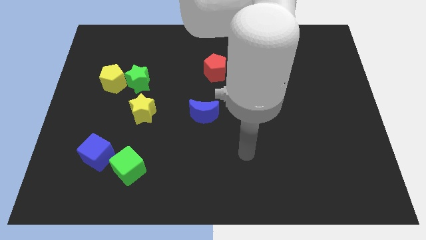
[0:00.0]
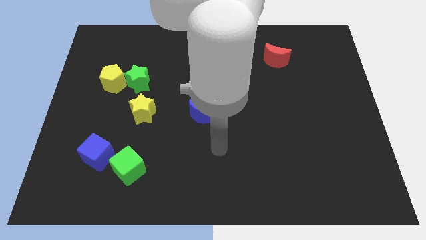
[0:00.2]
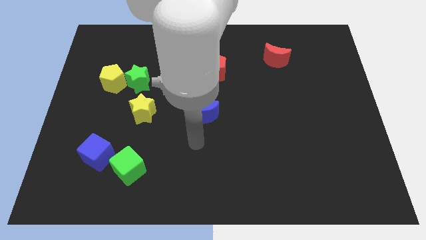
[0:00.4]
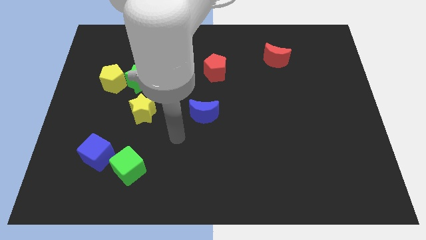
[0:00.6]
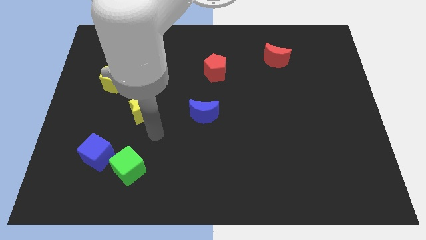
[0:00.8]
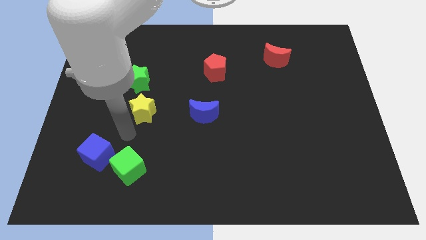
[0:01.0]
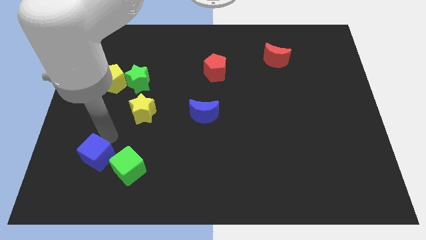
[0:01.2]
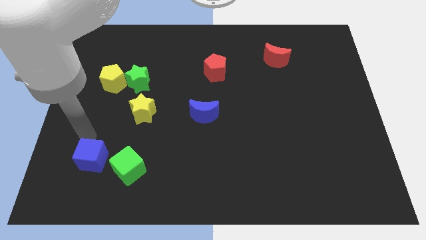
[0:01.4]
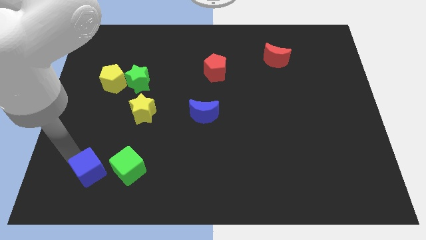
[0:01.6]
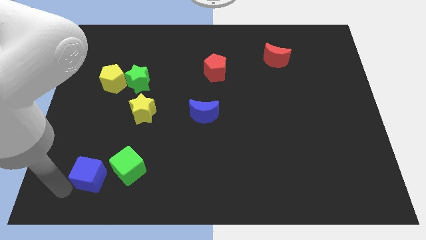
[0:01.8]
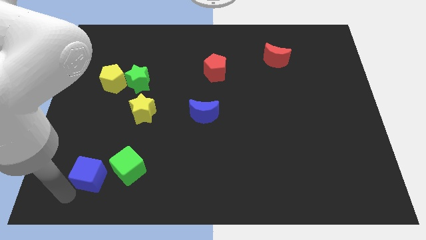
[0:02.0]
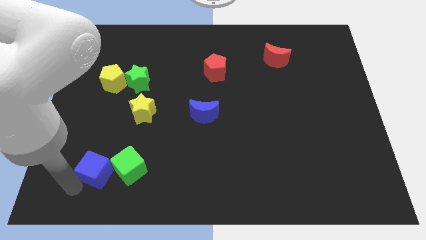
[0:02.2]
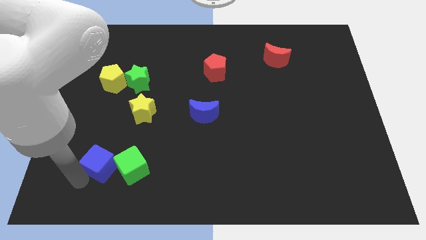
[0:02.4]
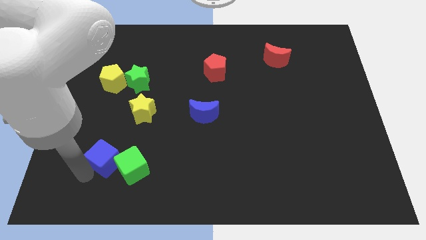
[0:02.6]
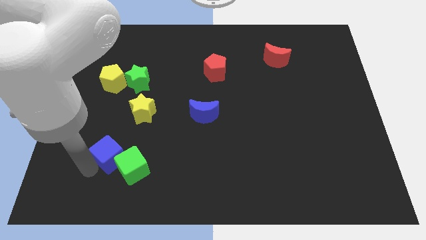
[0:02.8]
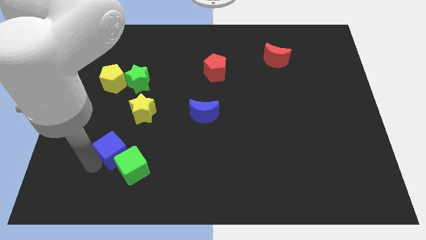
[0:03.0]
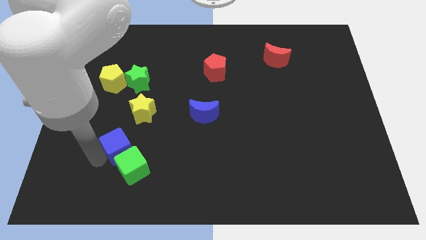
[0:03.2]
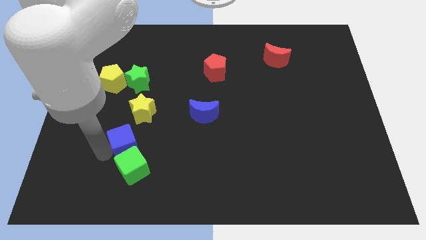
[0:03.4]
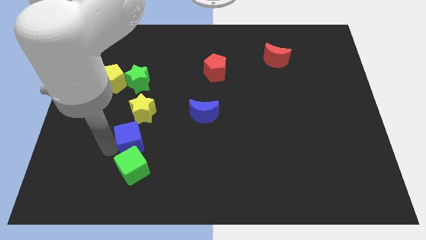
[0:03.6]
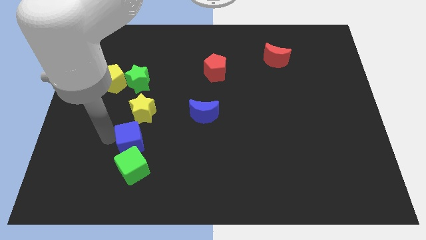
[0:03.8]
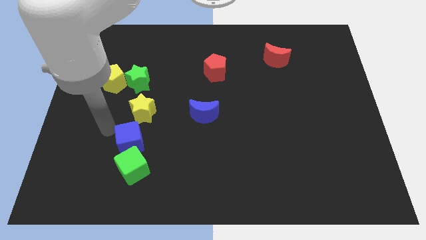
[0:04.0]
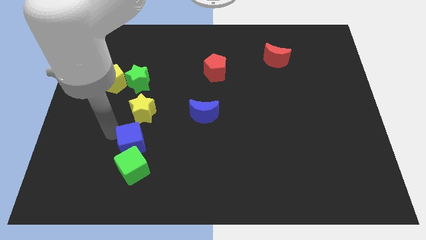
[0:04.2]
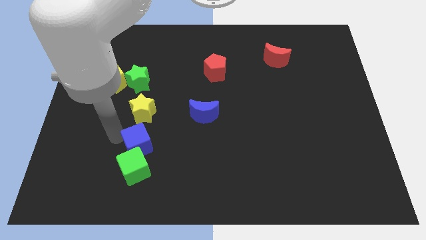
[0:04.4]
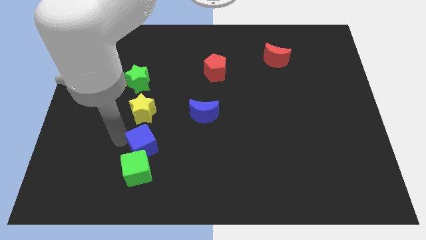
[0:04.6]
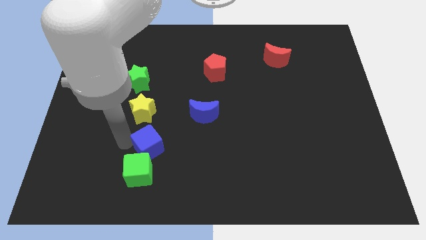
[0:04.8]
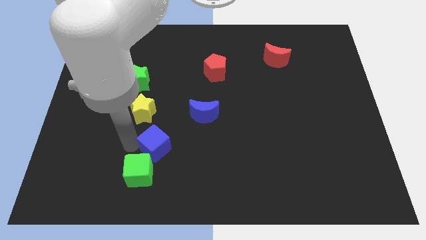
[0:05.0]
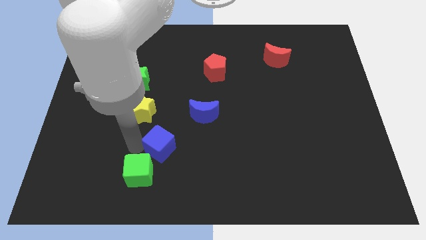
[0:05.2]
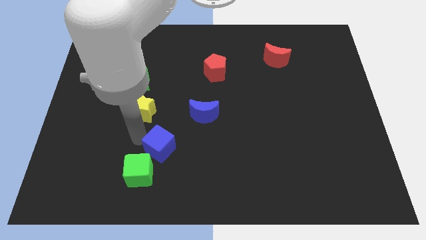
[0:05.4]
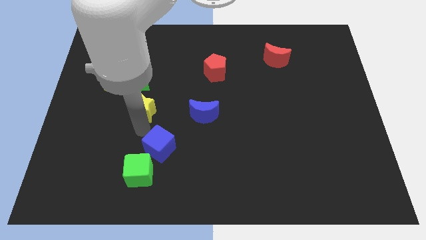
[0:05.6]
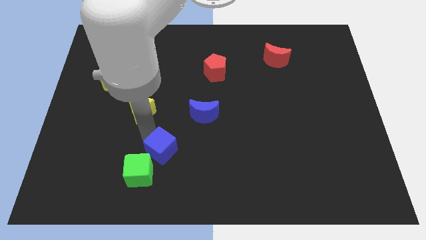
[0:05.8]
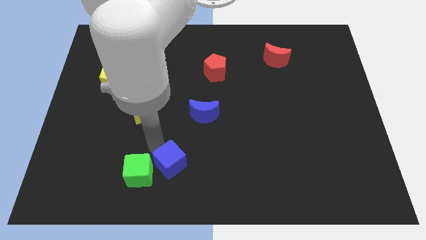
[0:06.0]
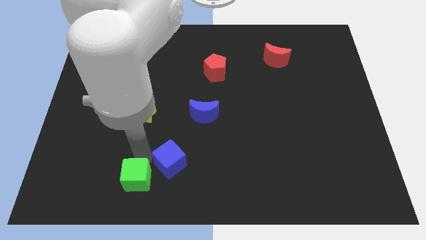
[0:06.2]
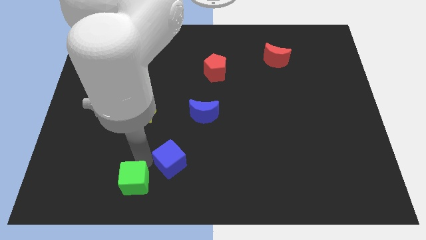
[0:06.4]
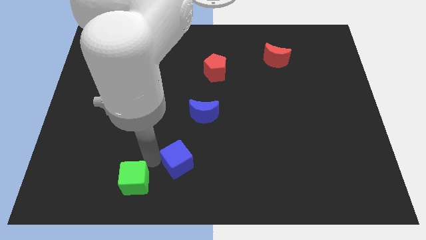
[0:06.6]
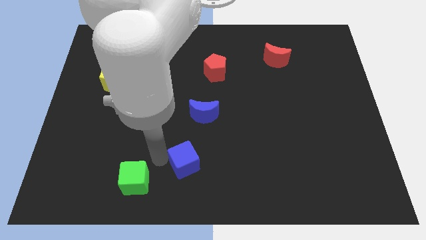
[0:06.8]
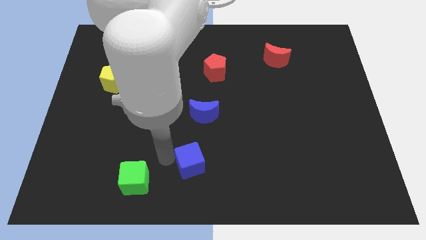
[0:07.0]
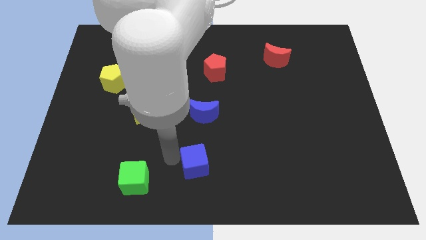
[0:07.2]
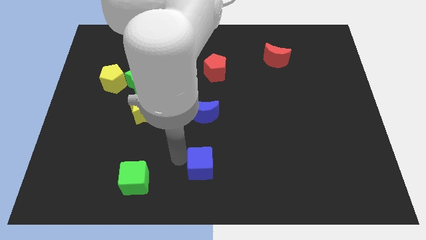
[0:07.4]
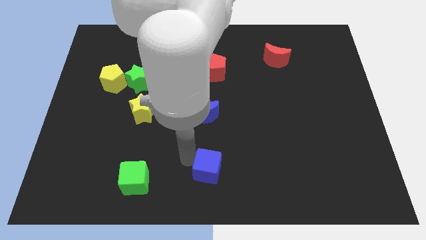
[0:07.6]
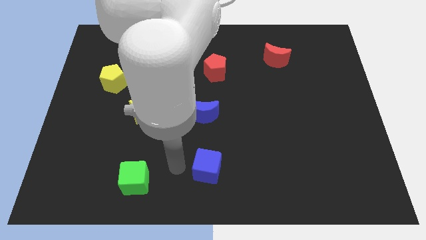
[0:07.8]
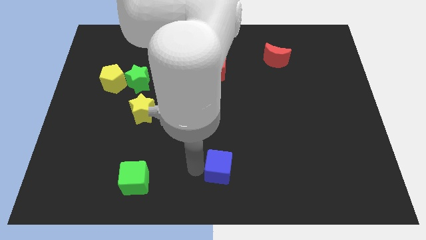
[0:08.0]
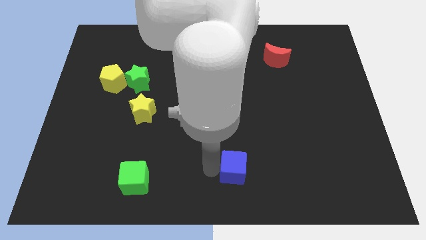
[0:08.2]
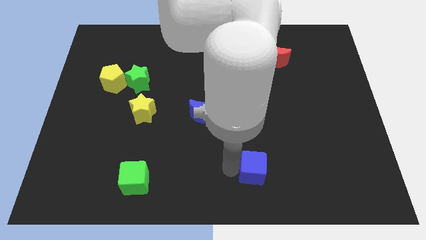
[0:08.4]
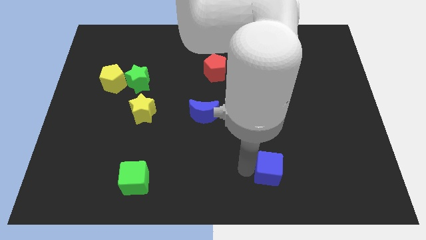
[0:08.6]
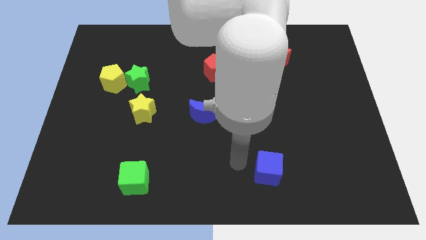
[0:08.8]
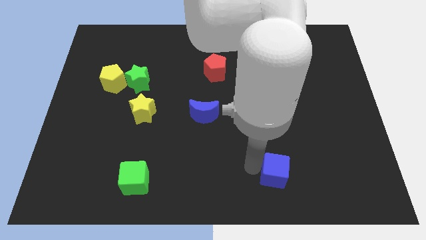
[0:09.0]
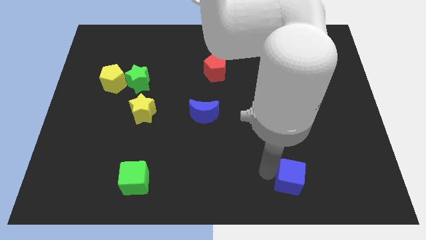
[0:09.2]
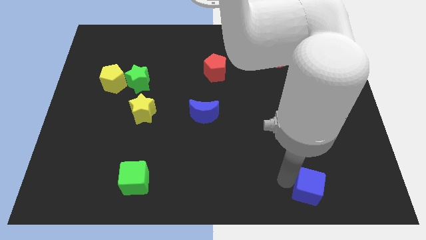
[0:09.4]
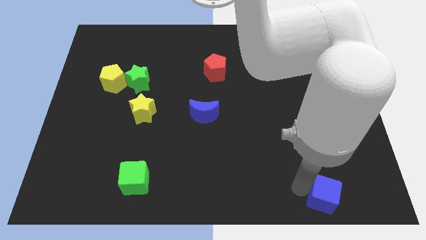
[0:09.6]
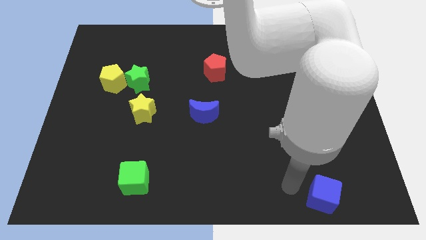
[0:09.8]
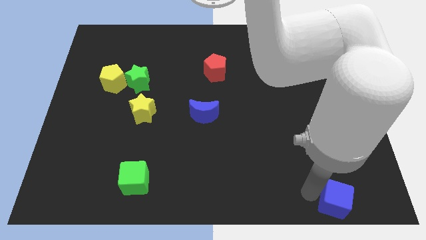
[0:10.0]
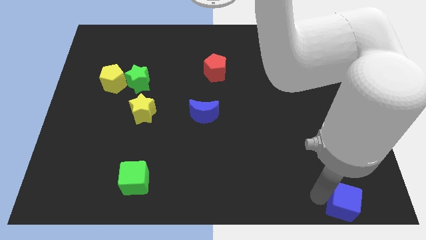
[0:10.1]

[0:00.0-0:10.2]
move the blue cube to the bottom right

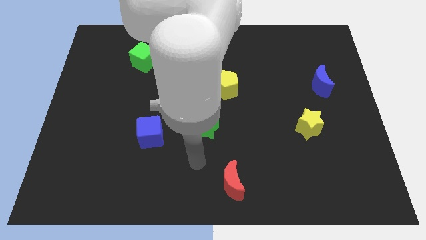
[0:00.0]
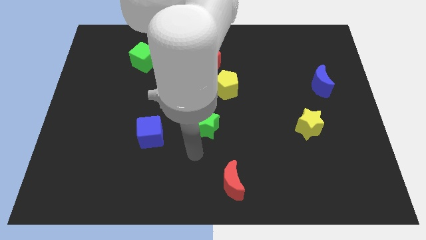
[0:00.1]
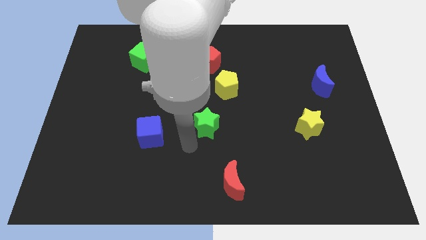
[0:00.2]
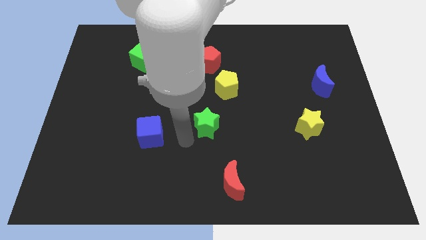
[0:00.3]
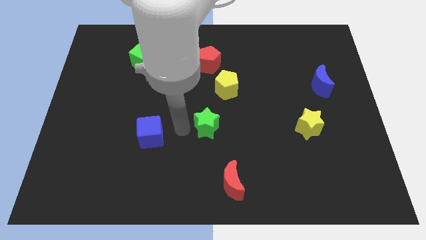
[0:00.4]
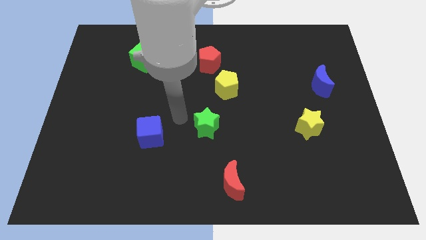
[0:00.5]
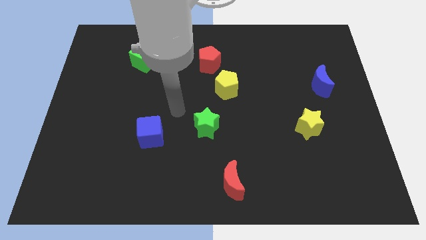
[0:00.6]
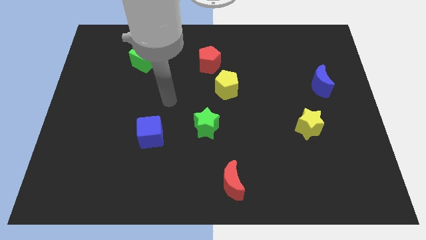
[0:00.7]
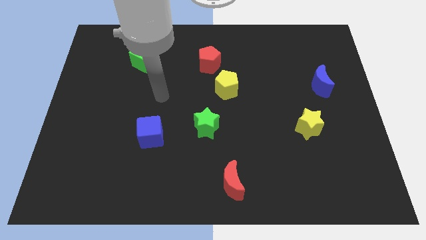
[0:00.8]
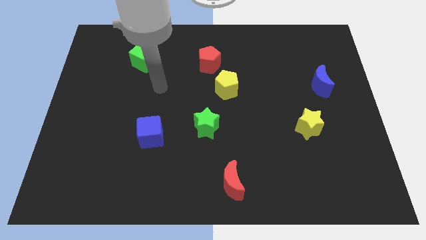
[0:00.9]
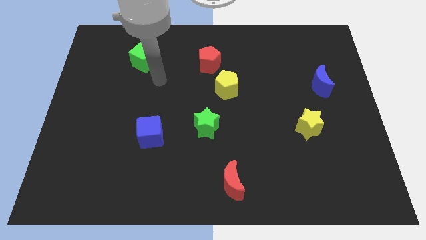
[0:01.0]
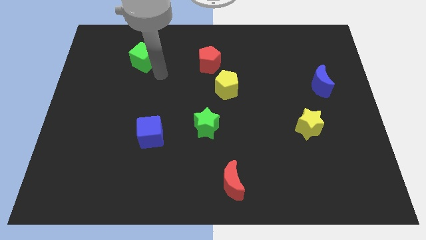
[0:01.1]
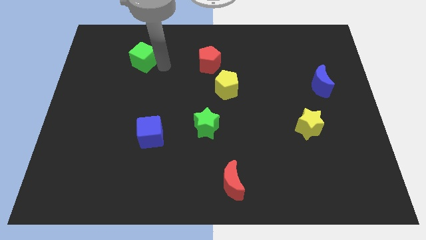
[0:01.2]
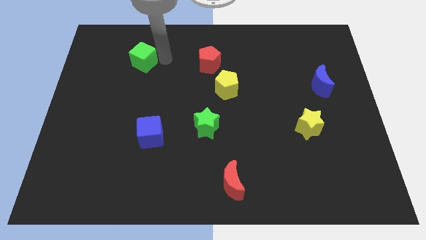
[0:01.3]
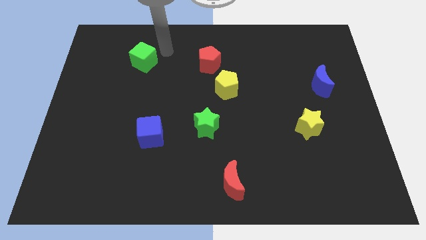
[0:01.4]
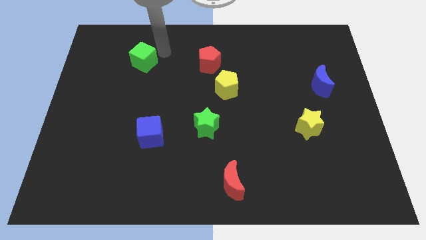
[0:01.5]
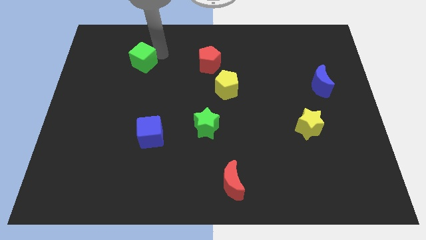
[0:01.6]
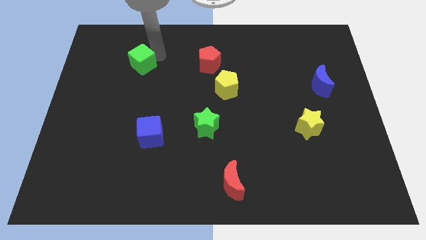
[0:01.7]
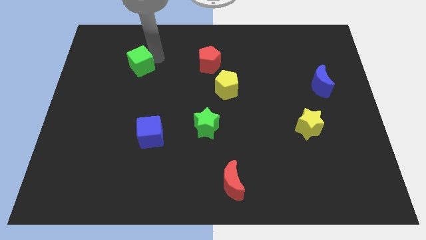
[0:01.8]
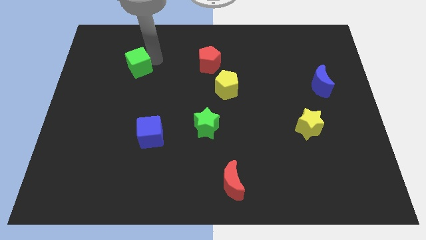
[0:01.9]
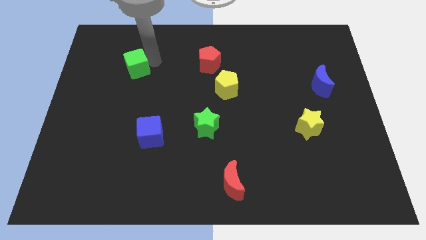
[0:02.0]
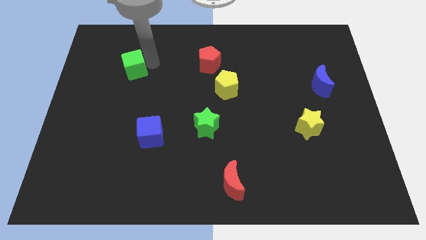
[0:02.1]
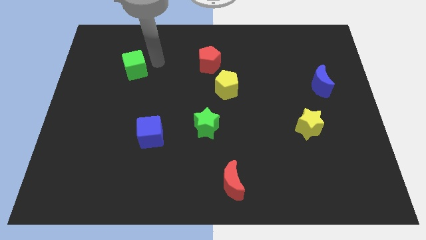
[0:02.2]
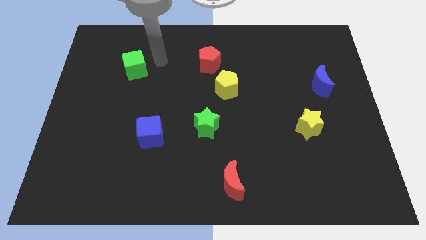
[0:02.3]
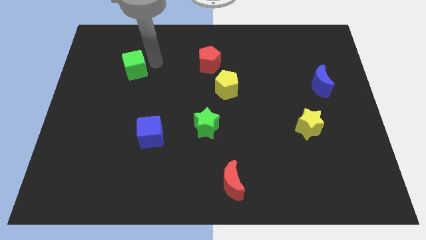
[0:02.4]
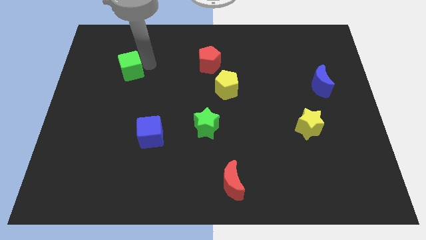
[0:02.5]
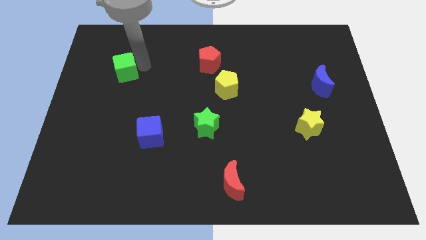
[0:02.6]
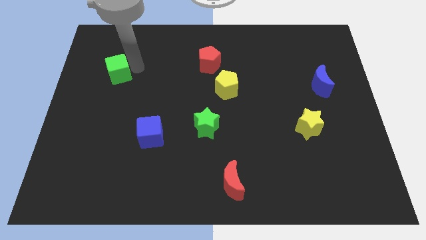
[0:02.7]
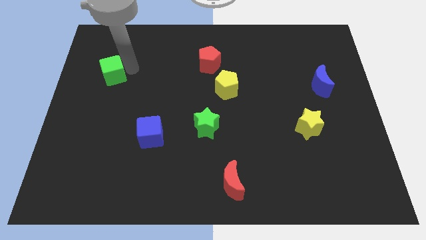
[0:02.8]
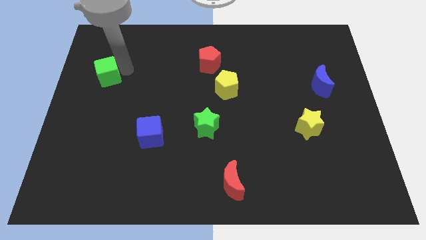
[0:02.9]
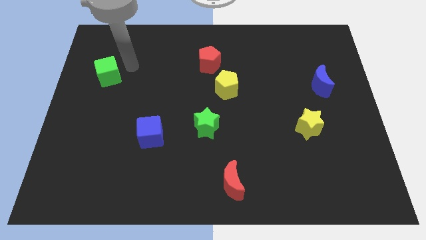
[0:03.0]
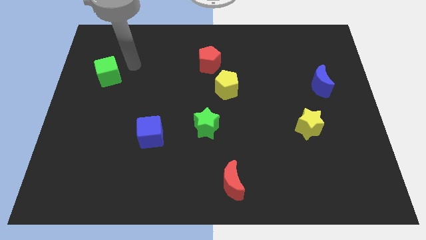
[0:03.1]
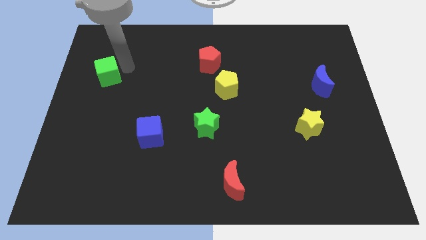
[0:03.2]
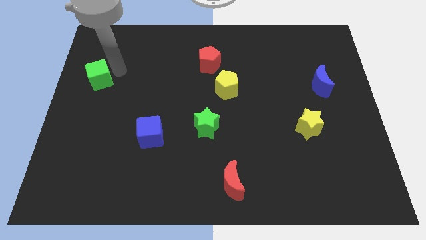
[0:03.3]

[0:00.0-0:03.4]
slide the green cube to the center left
